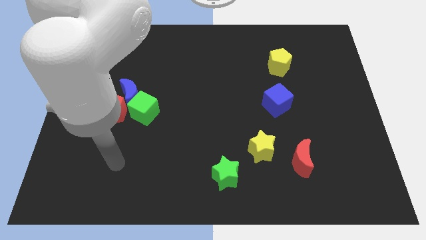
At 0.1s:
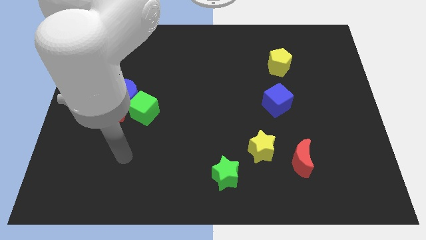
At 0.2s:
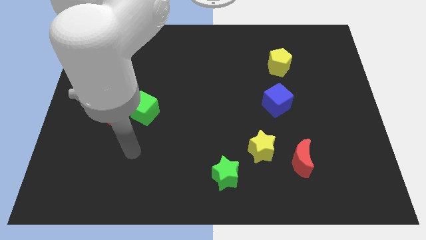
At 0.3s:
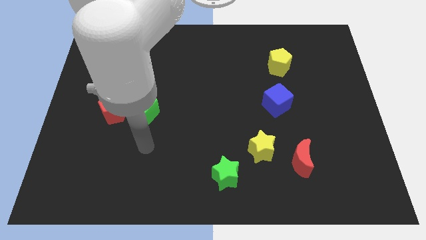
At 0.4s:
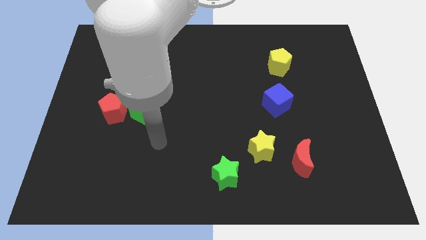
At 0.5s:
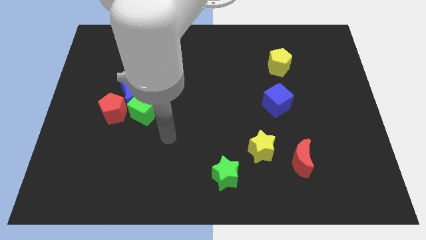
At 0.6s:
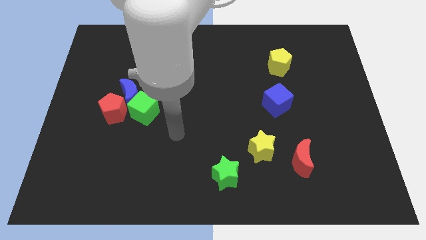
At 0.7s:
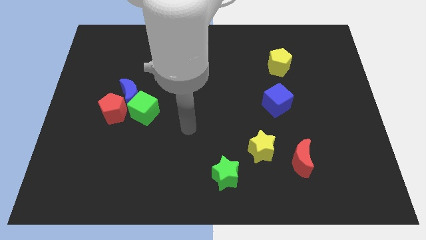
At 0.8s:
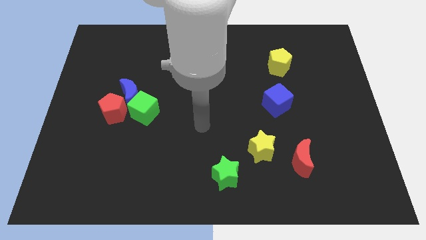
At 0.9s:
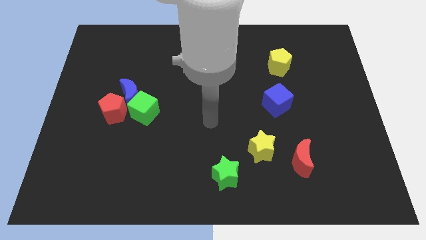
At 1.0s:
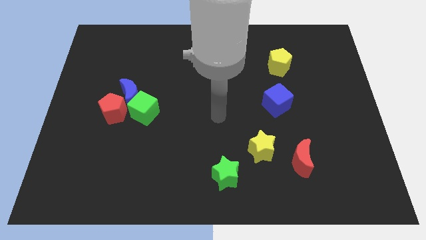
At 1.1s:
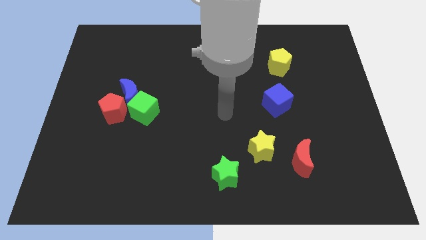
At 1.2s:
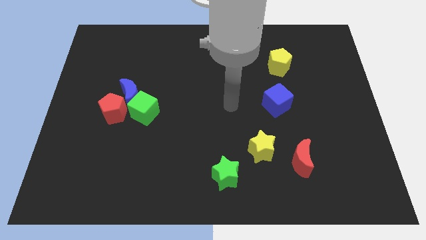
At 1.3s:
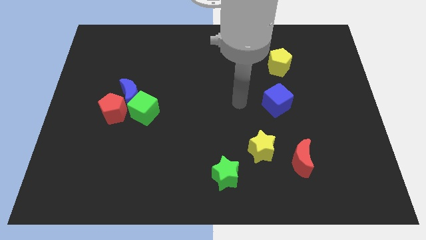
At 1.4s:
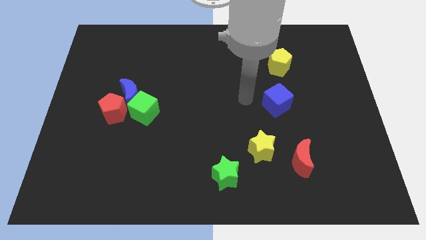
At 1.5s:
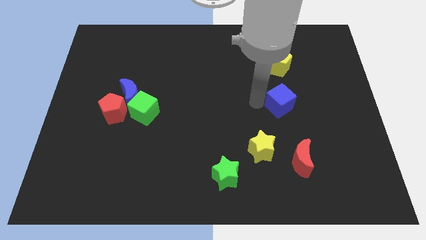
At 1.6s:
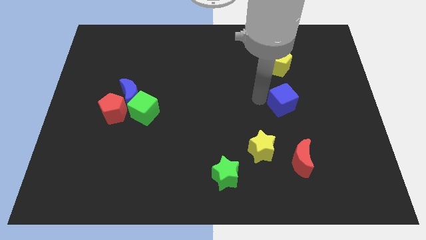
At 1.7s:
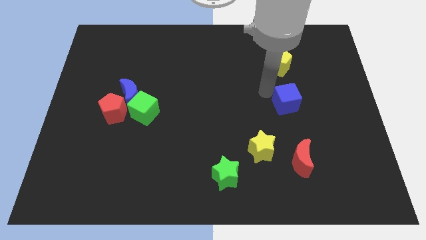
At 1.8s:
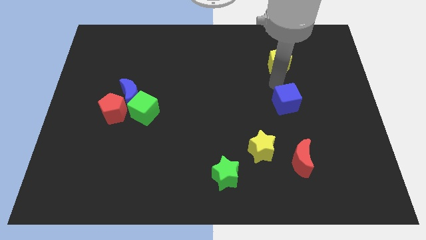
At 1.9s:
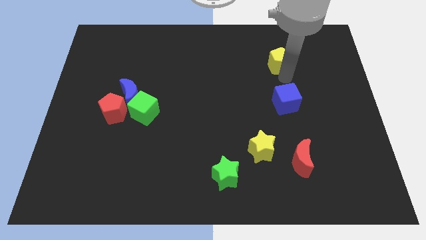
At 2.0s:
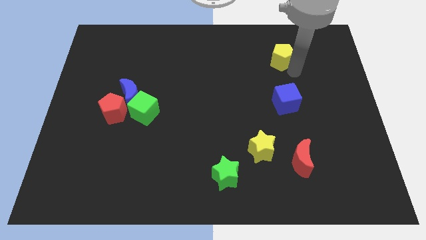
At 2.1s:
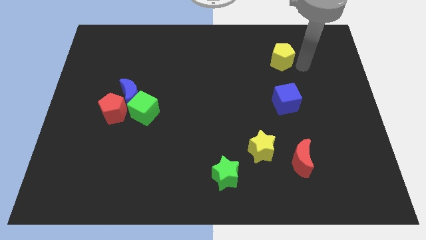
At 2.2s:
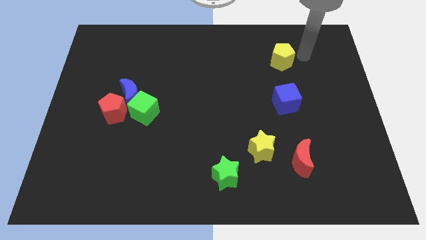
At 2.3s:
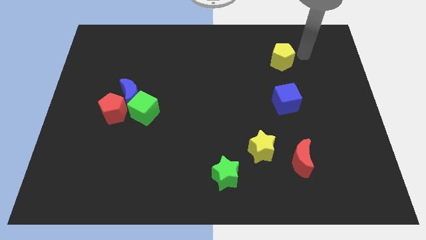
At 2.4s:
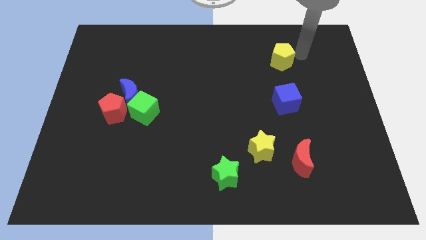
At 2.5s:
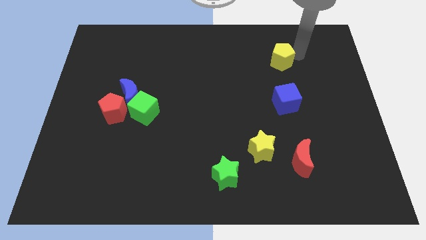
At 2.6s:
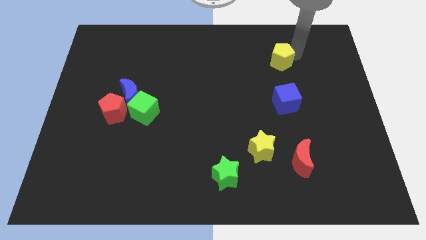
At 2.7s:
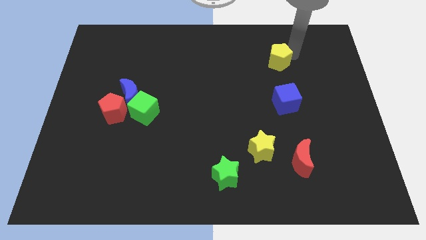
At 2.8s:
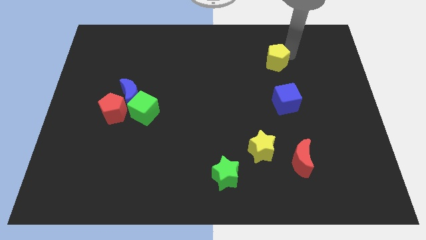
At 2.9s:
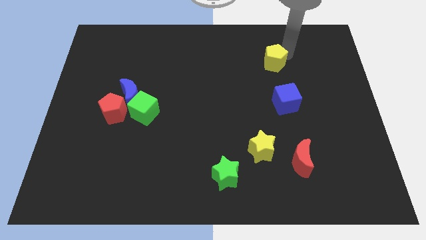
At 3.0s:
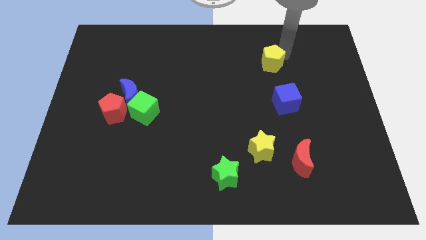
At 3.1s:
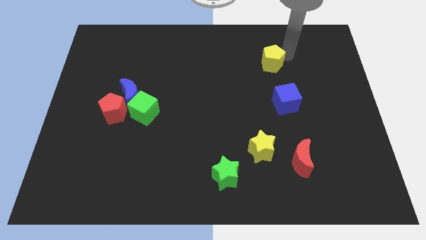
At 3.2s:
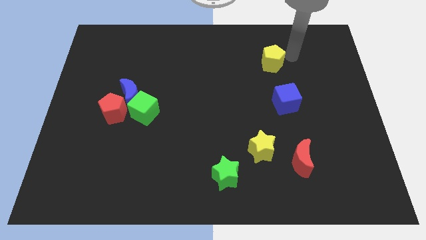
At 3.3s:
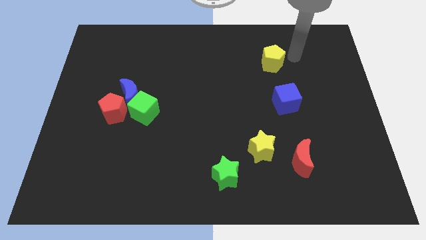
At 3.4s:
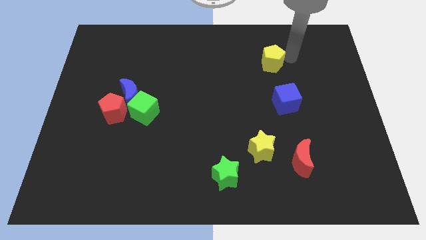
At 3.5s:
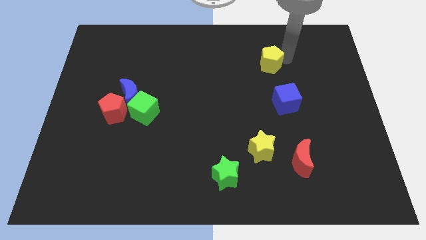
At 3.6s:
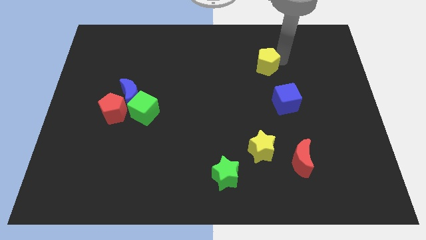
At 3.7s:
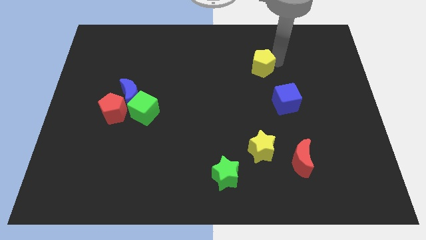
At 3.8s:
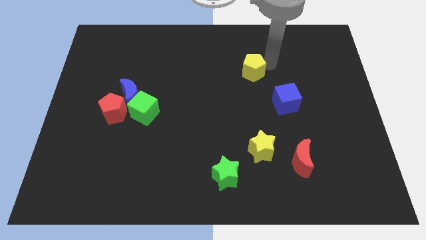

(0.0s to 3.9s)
slightly move the yellow pentagon left

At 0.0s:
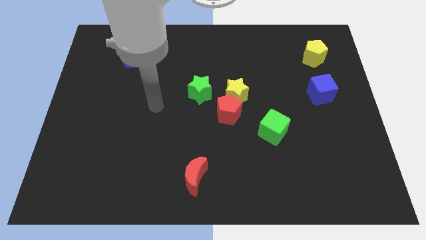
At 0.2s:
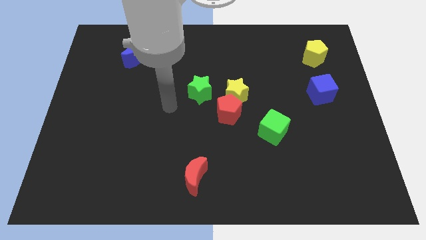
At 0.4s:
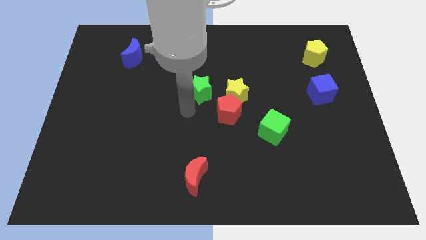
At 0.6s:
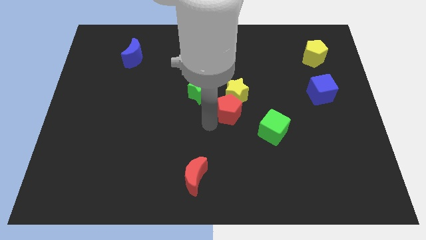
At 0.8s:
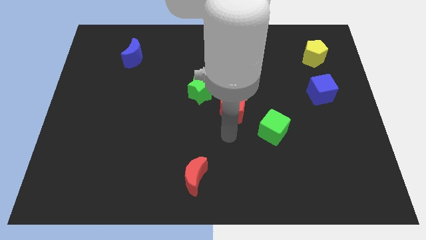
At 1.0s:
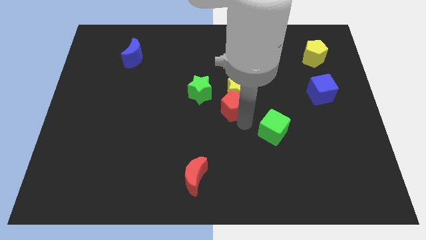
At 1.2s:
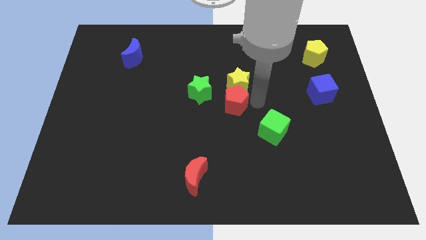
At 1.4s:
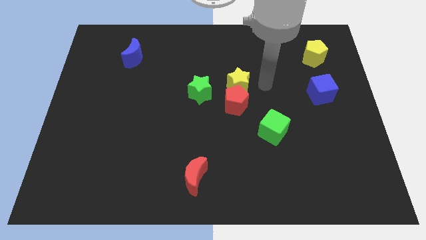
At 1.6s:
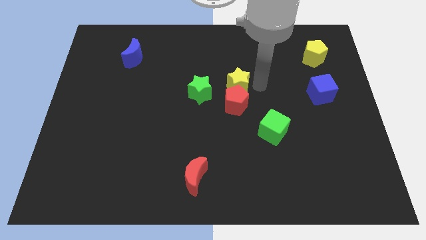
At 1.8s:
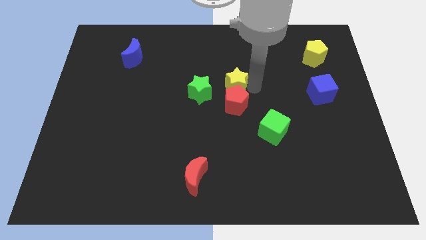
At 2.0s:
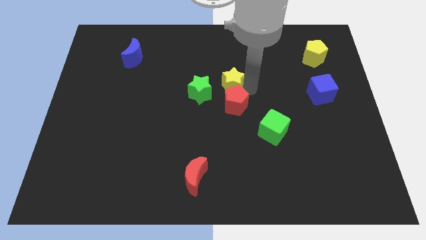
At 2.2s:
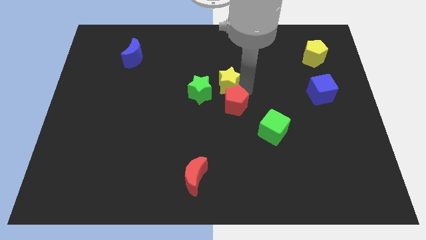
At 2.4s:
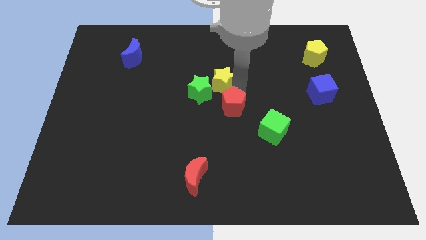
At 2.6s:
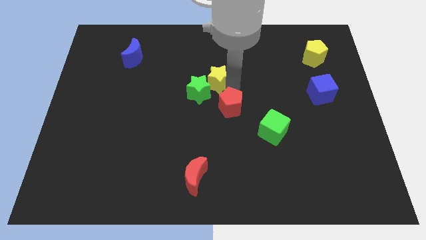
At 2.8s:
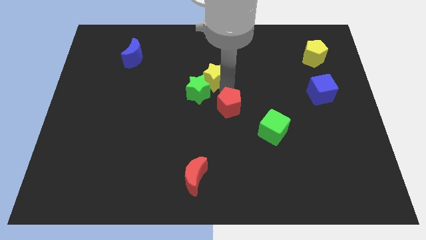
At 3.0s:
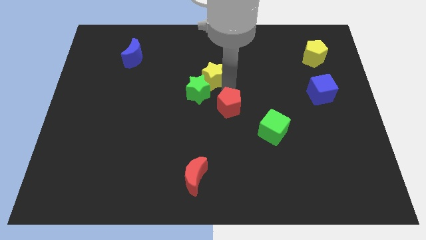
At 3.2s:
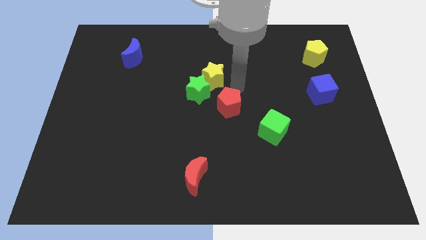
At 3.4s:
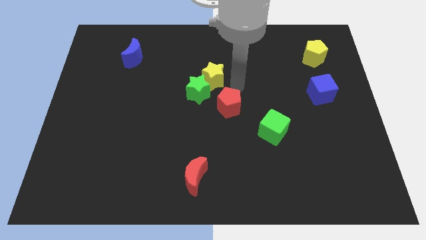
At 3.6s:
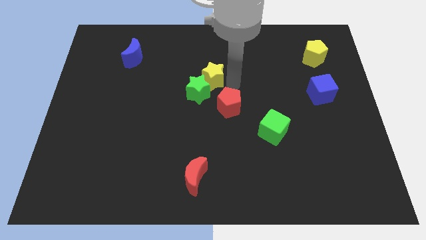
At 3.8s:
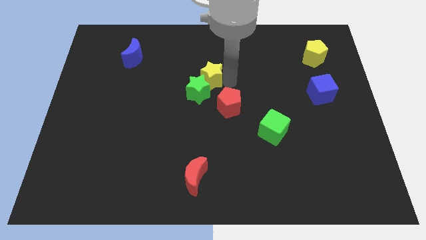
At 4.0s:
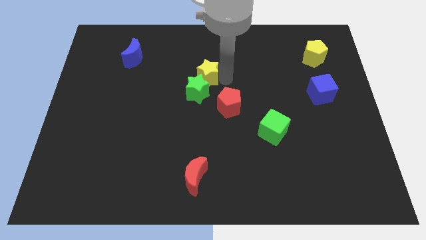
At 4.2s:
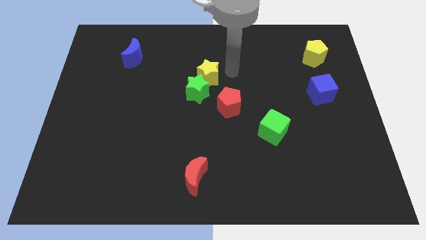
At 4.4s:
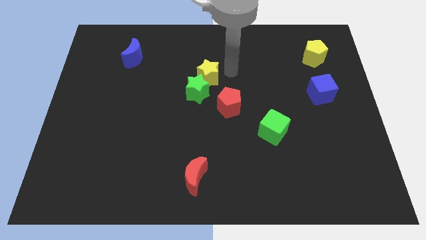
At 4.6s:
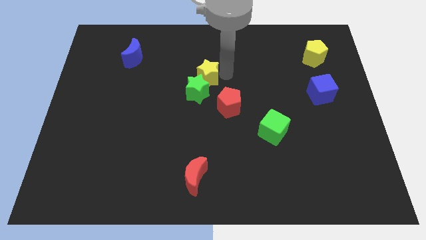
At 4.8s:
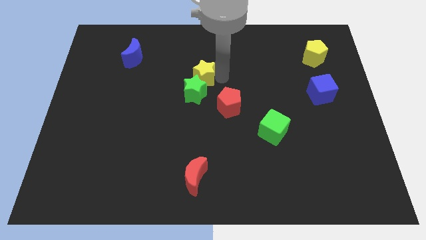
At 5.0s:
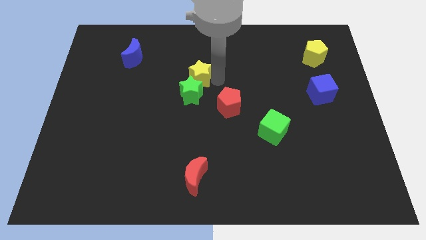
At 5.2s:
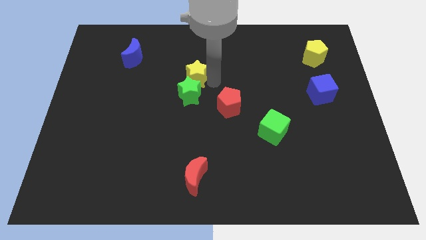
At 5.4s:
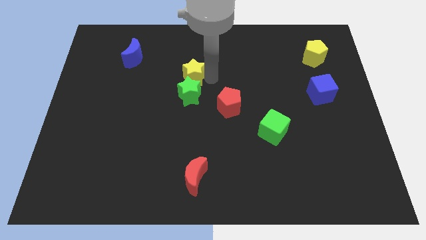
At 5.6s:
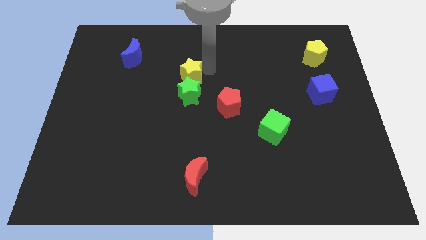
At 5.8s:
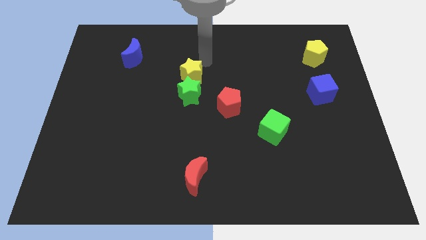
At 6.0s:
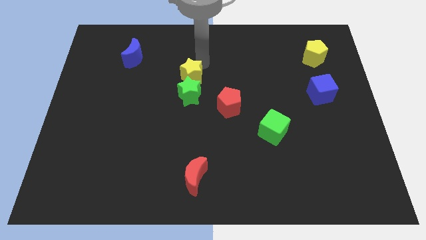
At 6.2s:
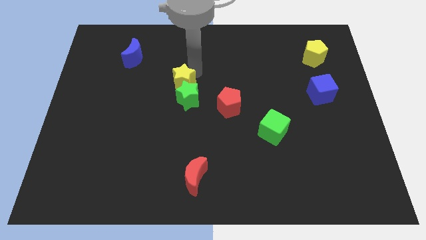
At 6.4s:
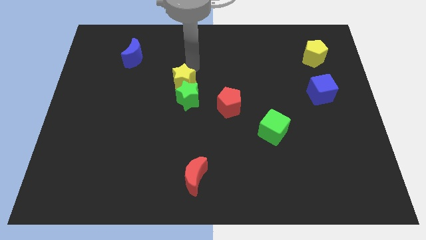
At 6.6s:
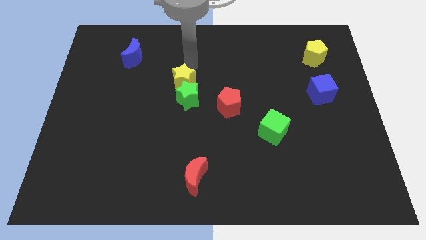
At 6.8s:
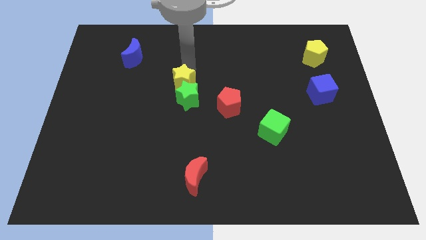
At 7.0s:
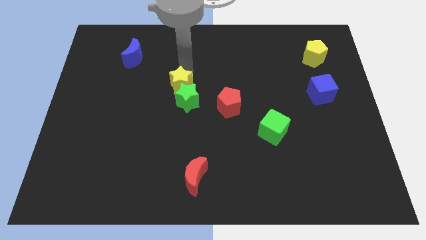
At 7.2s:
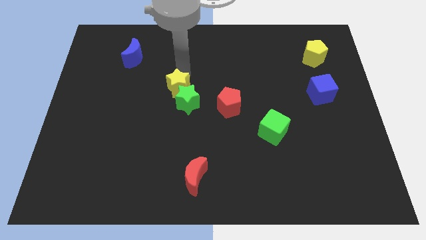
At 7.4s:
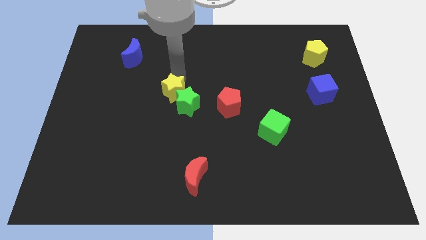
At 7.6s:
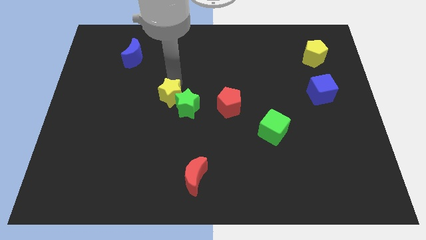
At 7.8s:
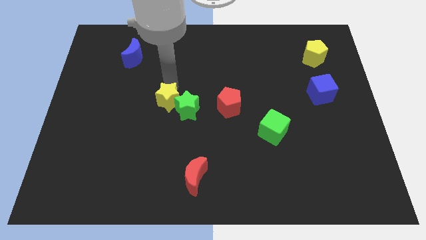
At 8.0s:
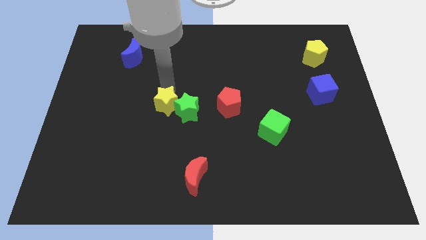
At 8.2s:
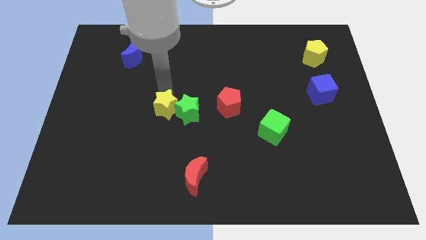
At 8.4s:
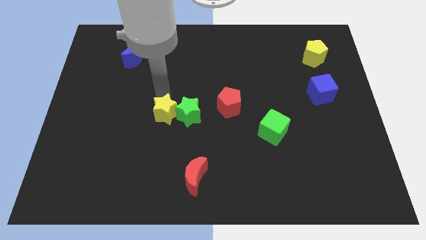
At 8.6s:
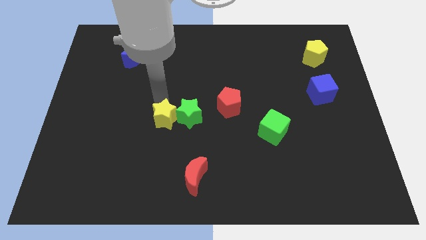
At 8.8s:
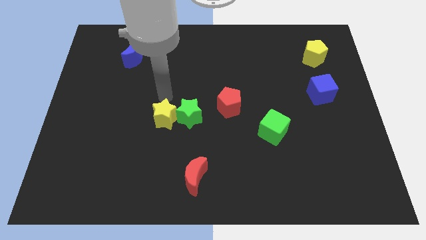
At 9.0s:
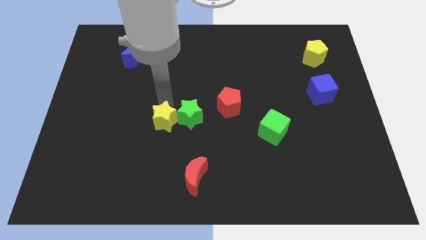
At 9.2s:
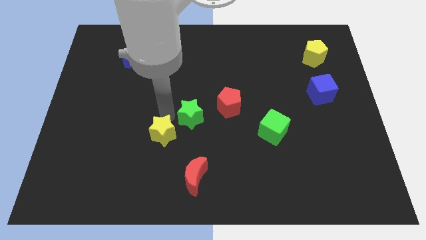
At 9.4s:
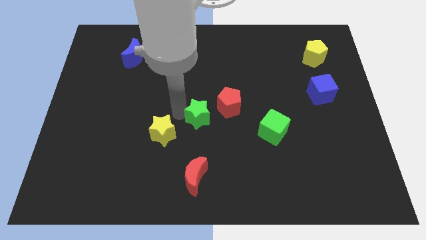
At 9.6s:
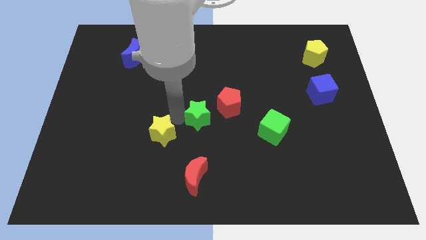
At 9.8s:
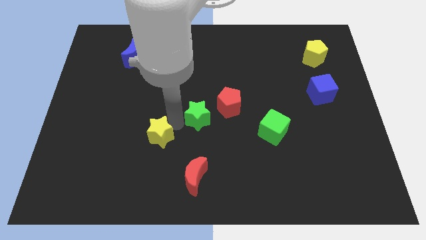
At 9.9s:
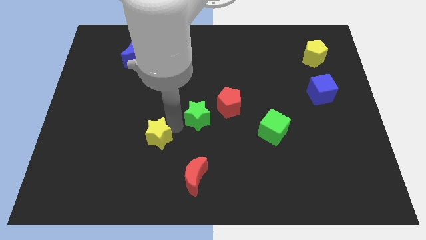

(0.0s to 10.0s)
move the yellow star diagonally down and to the left
